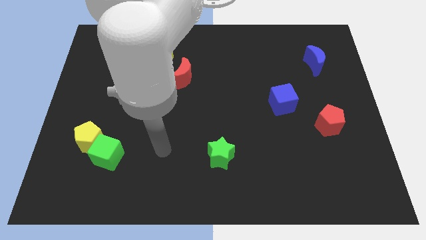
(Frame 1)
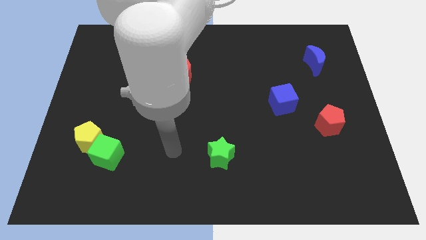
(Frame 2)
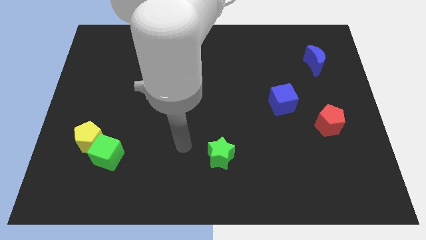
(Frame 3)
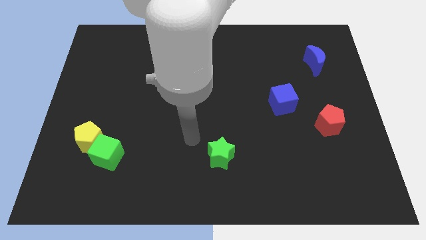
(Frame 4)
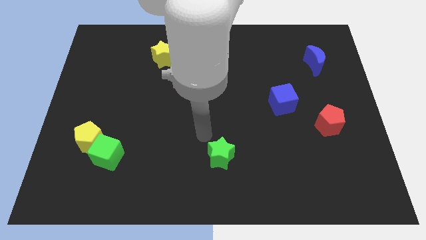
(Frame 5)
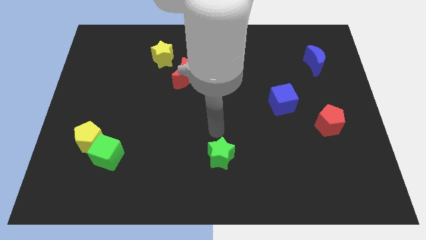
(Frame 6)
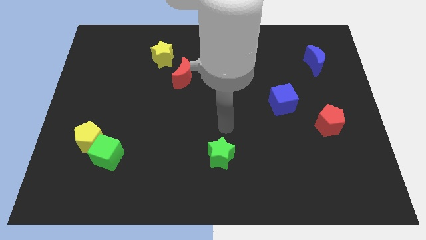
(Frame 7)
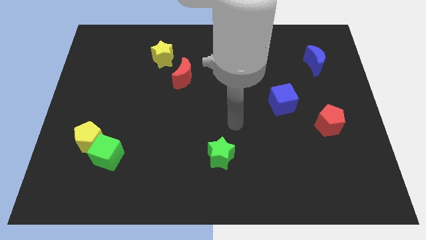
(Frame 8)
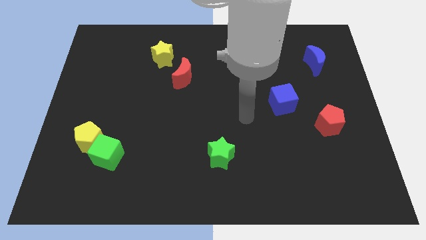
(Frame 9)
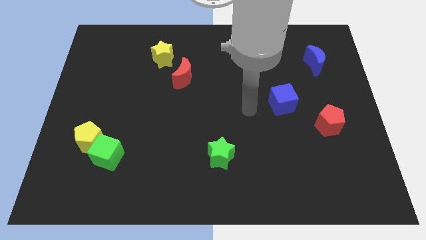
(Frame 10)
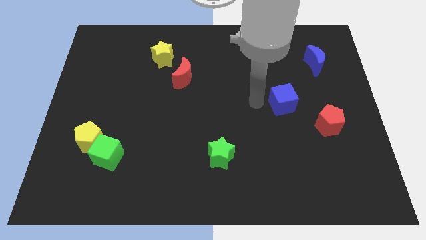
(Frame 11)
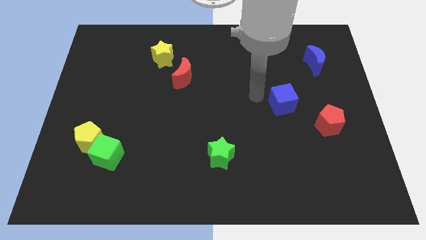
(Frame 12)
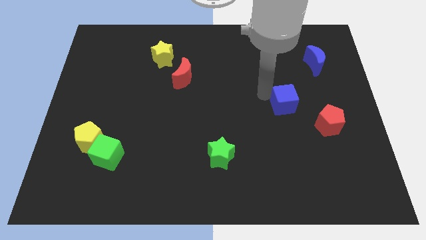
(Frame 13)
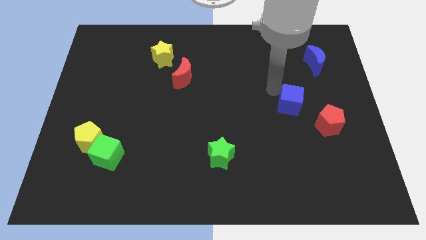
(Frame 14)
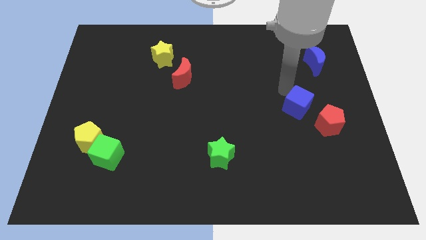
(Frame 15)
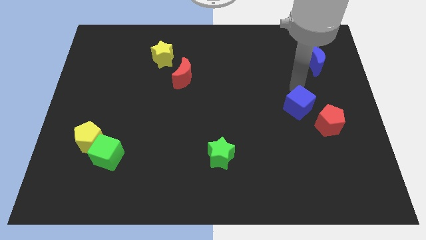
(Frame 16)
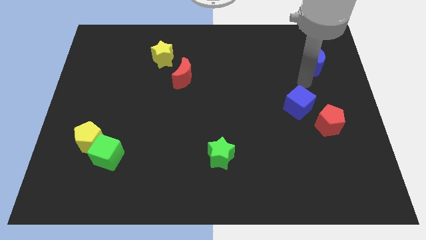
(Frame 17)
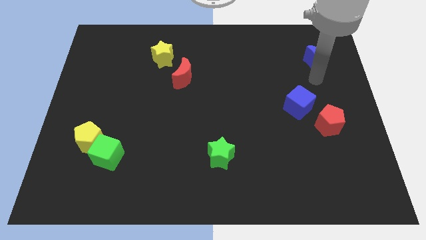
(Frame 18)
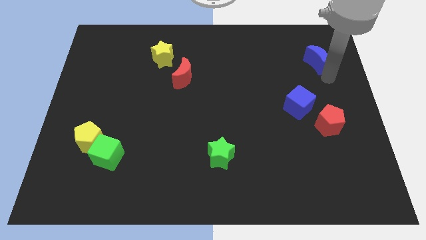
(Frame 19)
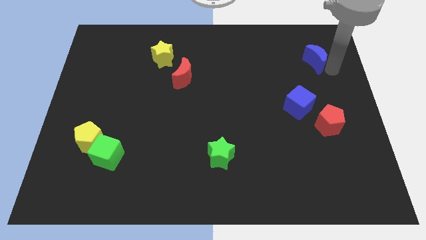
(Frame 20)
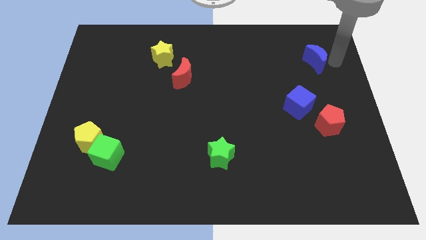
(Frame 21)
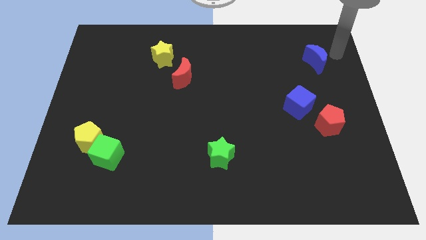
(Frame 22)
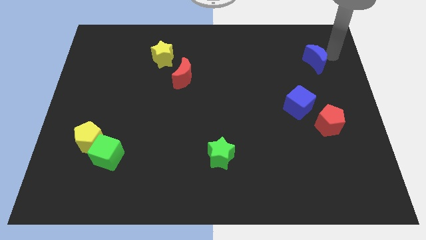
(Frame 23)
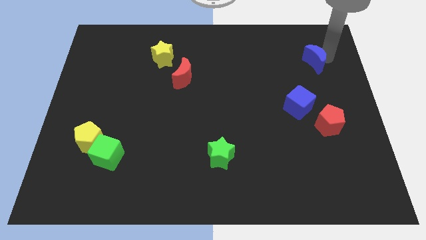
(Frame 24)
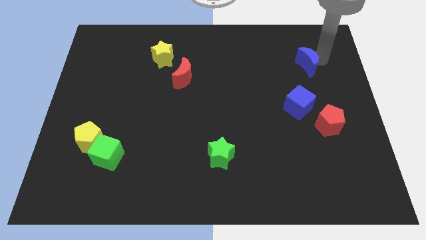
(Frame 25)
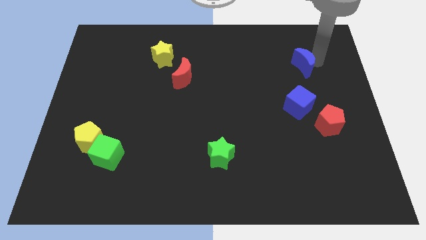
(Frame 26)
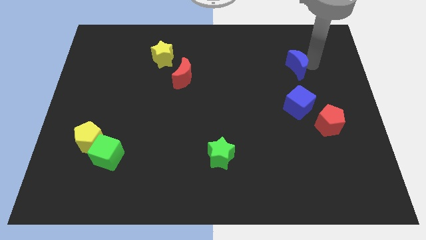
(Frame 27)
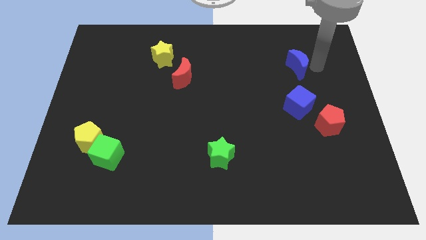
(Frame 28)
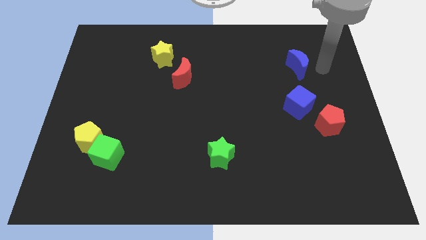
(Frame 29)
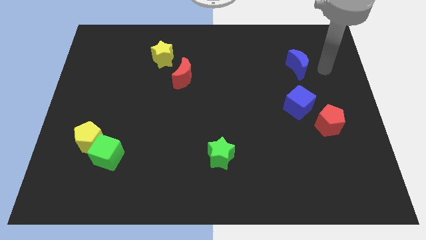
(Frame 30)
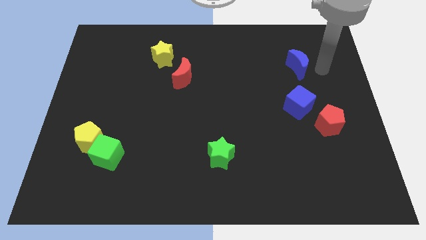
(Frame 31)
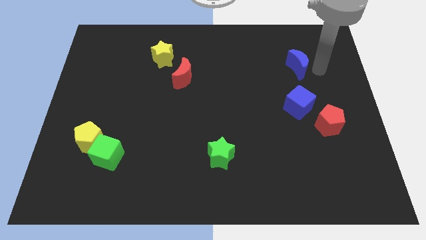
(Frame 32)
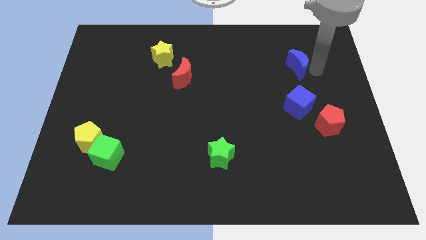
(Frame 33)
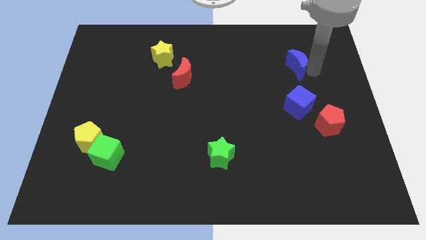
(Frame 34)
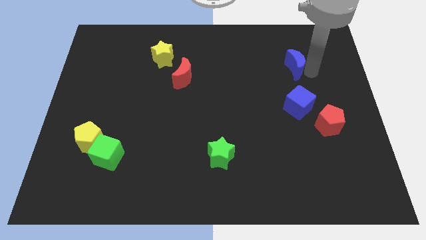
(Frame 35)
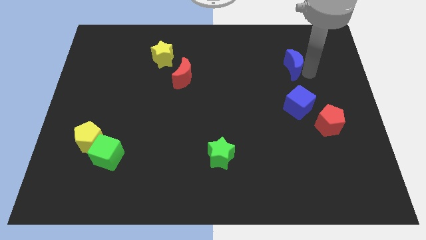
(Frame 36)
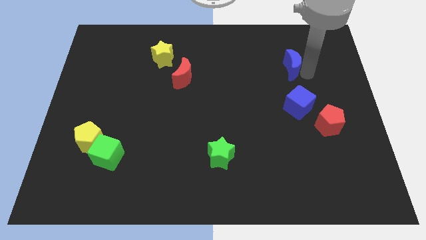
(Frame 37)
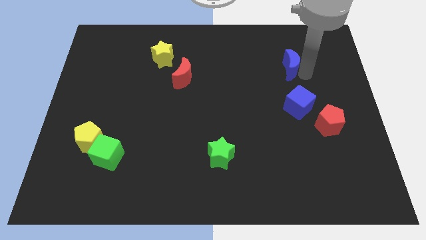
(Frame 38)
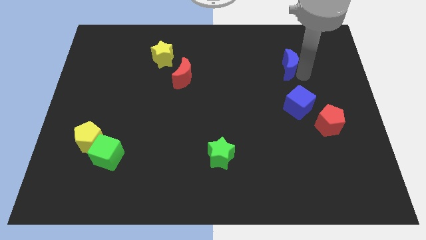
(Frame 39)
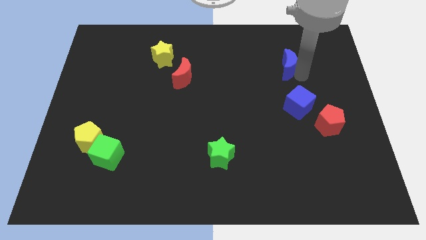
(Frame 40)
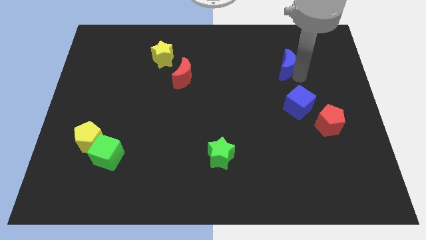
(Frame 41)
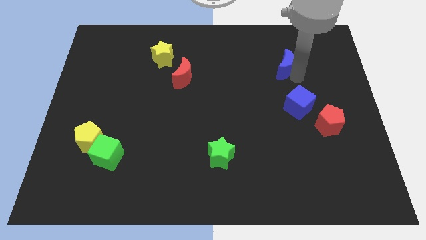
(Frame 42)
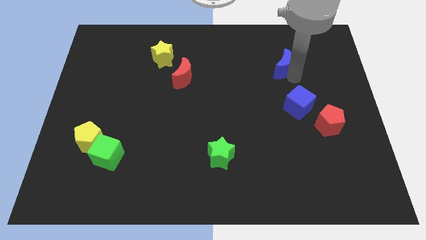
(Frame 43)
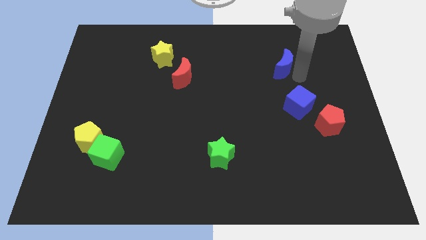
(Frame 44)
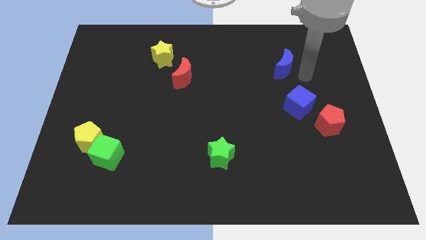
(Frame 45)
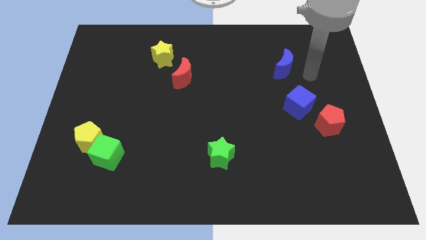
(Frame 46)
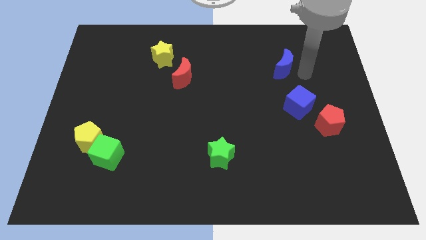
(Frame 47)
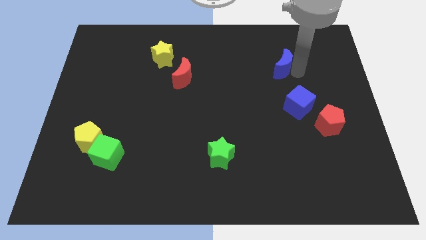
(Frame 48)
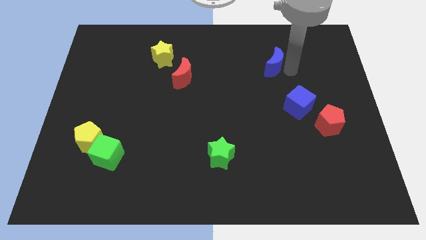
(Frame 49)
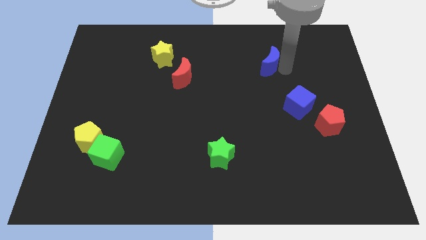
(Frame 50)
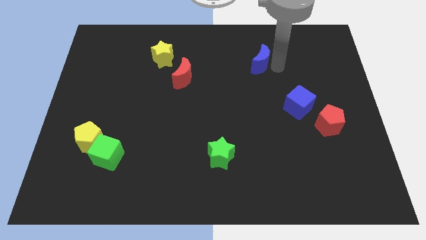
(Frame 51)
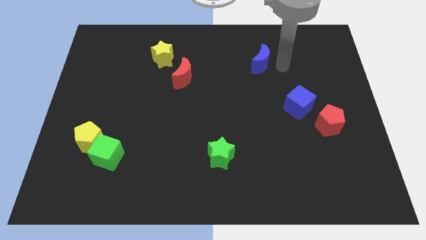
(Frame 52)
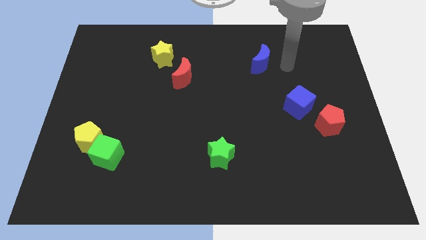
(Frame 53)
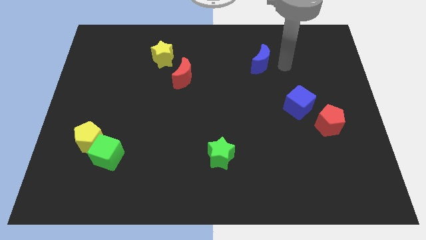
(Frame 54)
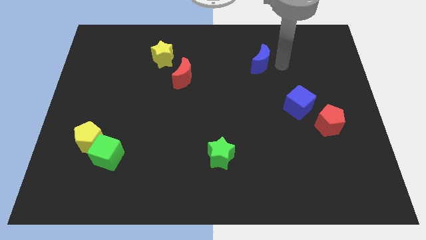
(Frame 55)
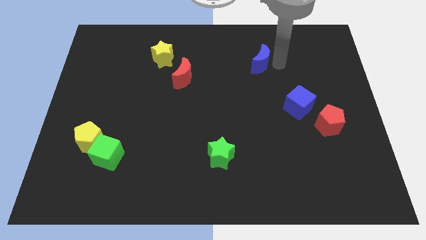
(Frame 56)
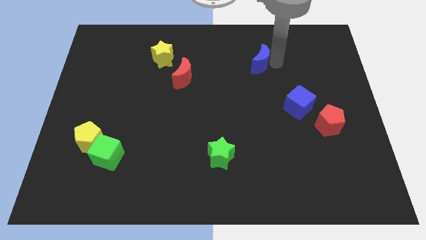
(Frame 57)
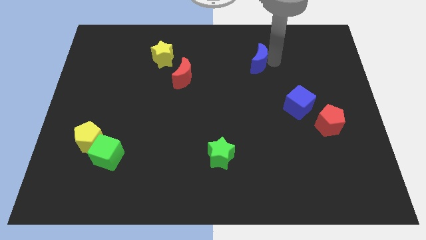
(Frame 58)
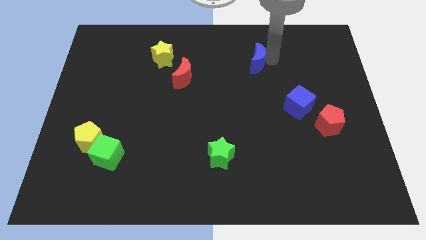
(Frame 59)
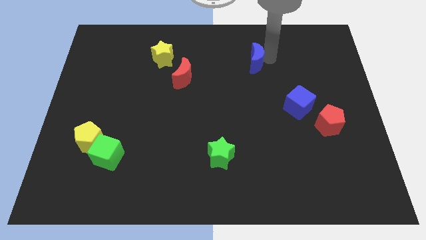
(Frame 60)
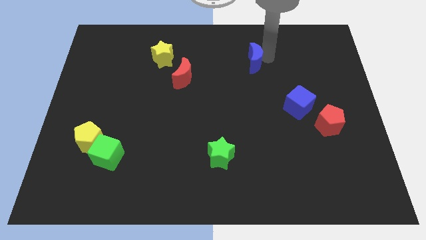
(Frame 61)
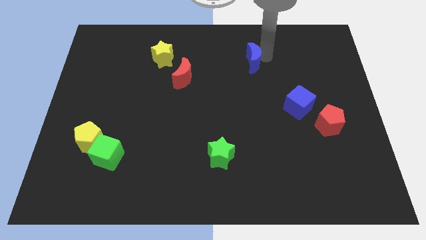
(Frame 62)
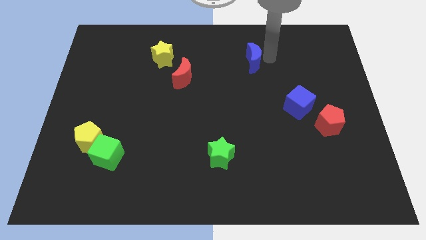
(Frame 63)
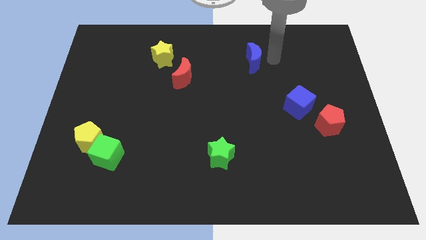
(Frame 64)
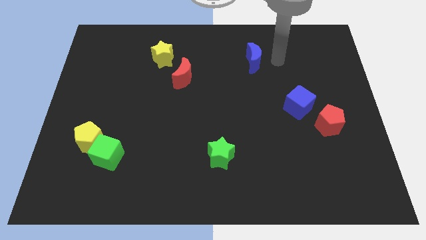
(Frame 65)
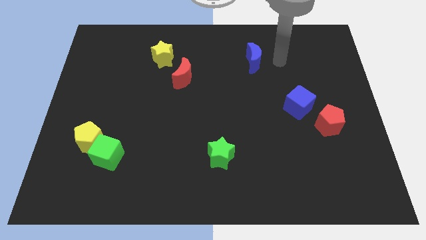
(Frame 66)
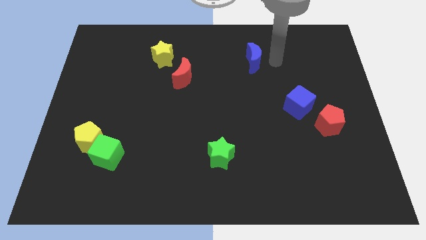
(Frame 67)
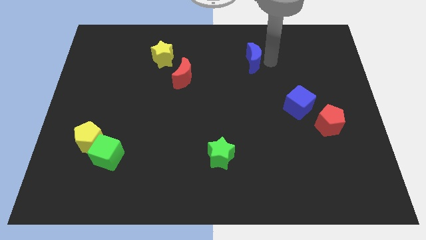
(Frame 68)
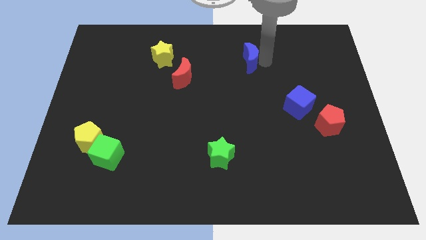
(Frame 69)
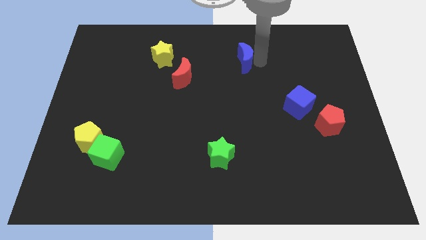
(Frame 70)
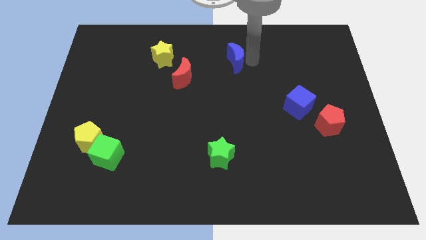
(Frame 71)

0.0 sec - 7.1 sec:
slide the blue moon to the left

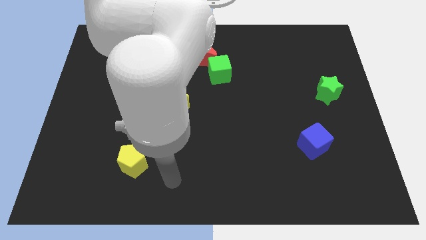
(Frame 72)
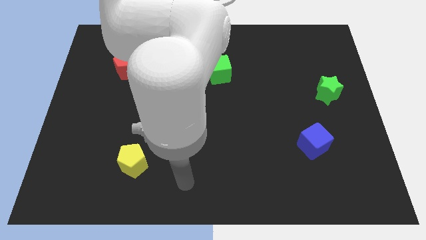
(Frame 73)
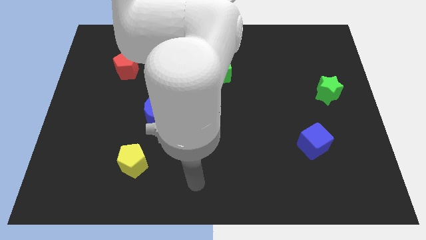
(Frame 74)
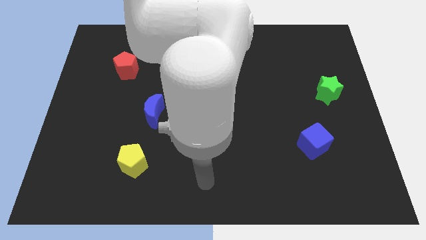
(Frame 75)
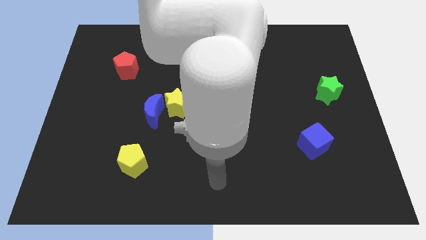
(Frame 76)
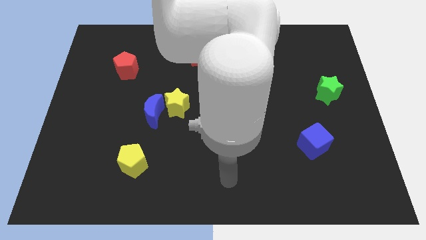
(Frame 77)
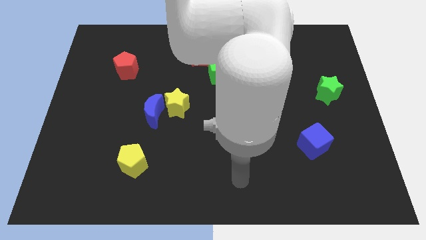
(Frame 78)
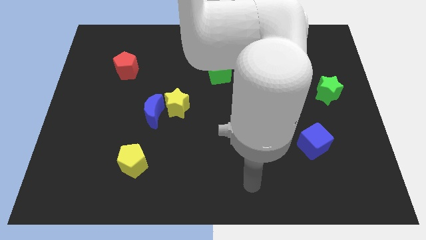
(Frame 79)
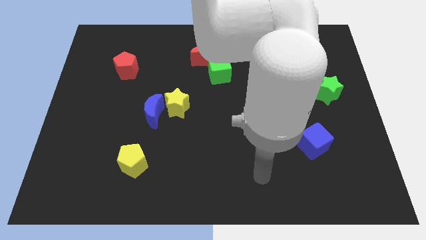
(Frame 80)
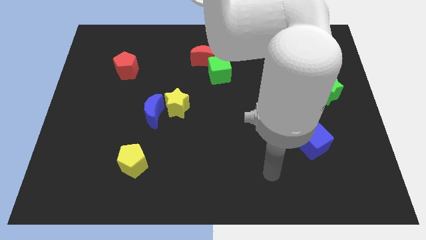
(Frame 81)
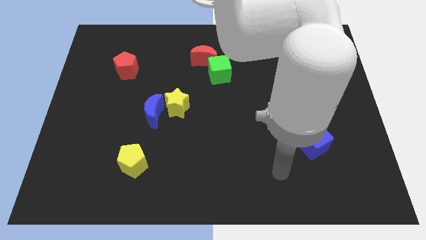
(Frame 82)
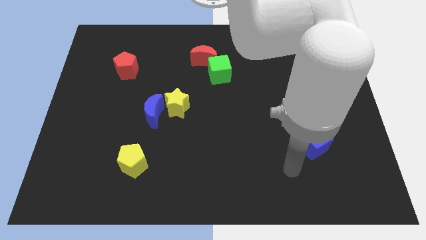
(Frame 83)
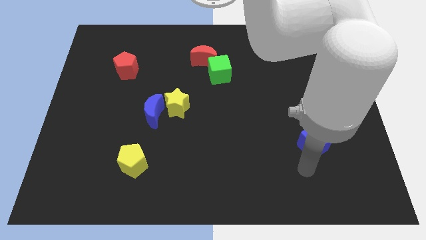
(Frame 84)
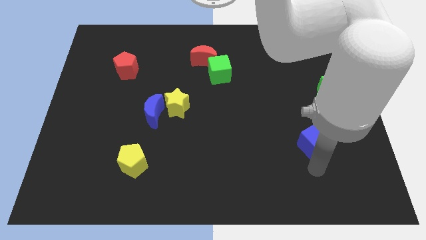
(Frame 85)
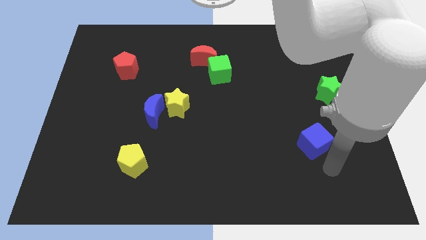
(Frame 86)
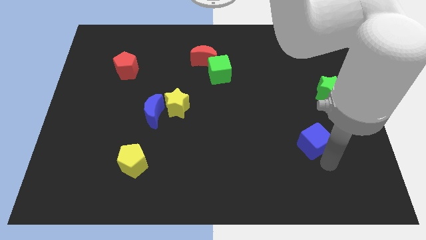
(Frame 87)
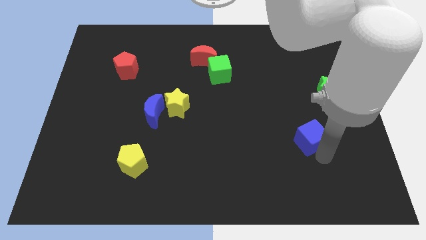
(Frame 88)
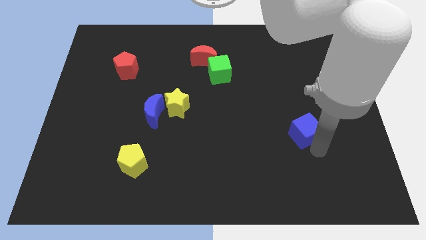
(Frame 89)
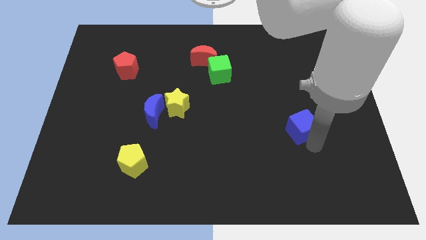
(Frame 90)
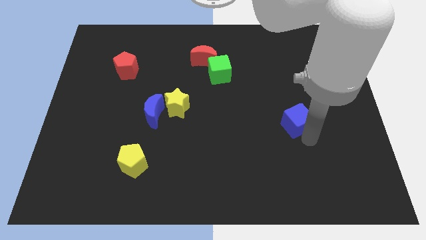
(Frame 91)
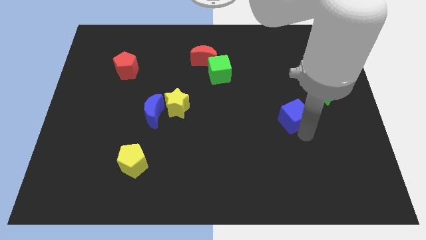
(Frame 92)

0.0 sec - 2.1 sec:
slide the blue cube diagonally upwards and left somewhat
